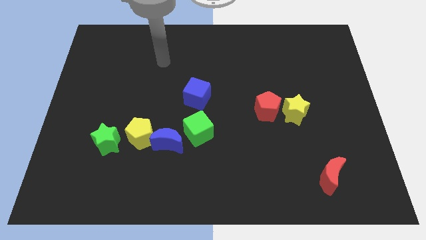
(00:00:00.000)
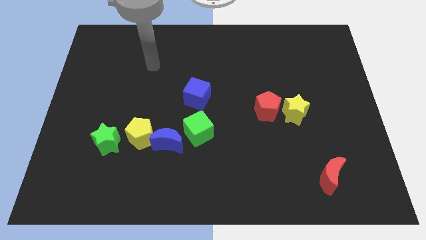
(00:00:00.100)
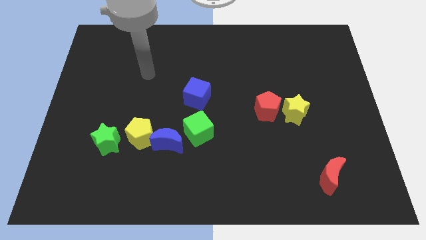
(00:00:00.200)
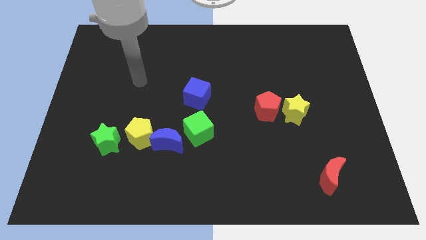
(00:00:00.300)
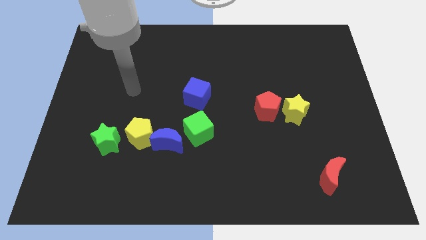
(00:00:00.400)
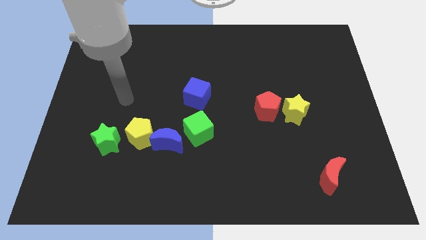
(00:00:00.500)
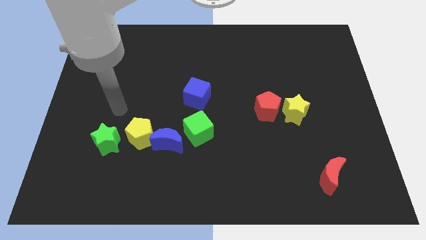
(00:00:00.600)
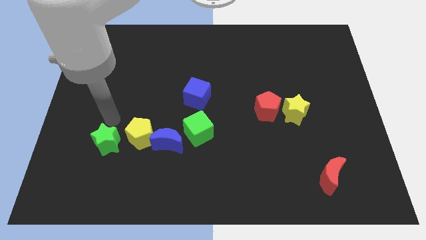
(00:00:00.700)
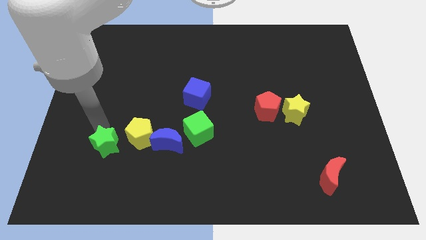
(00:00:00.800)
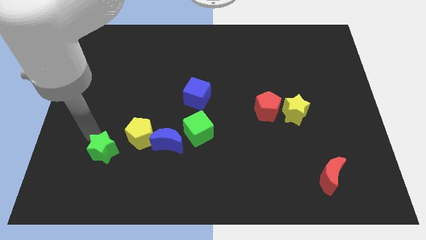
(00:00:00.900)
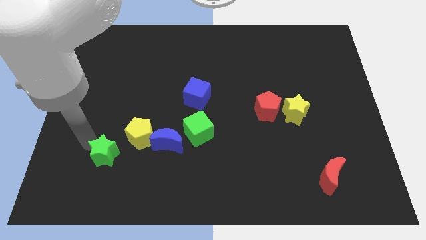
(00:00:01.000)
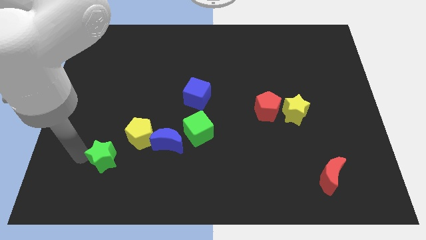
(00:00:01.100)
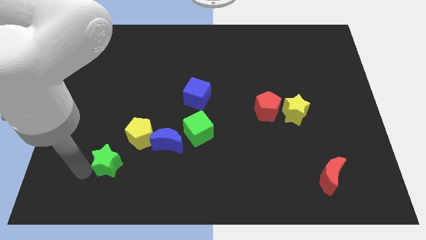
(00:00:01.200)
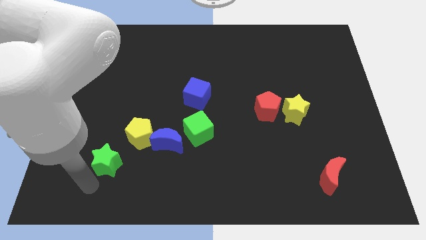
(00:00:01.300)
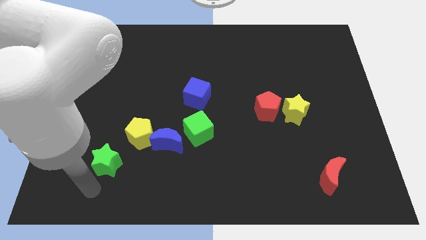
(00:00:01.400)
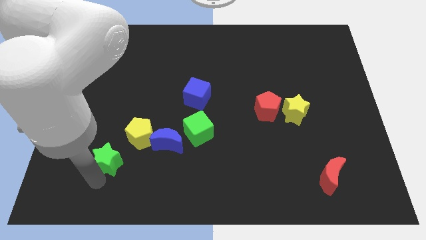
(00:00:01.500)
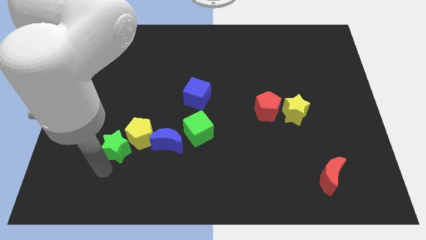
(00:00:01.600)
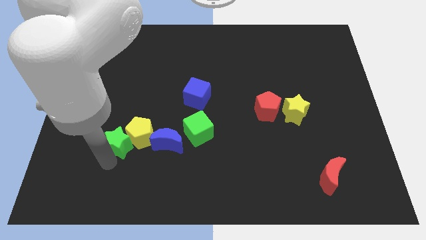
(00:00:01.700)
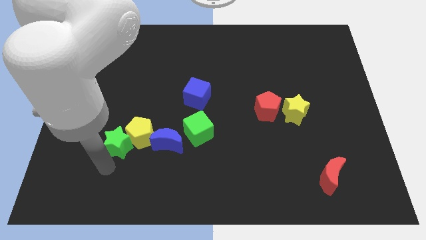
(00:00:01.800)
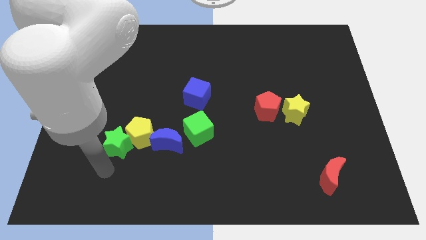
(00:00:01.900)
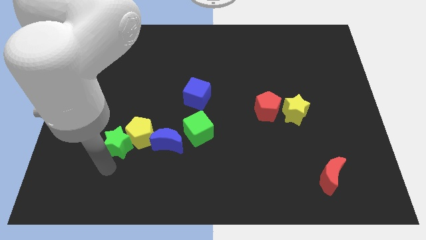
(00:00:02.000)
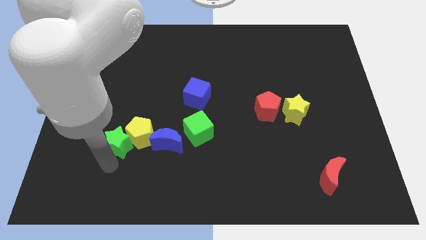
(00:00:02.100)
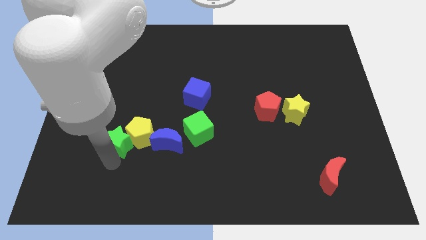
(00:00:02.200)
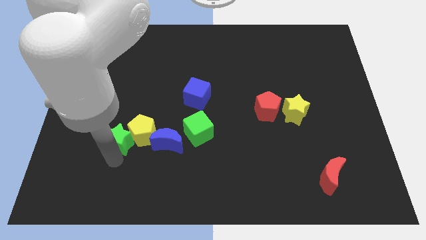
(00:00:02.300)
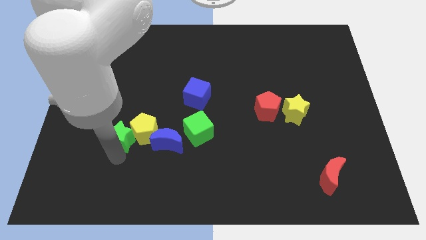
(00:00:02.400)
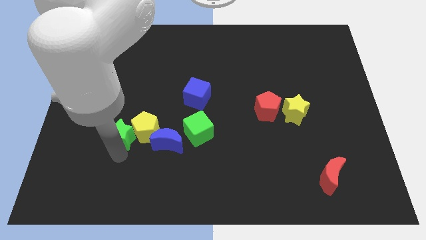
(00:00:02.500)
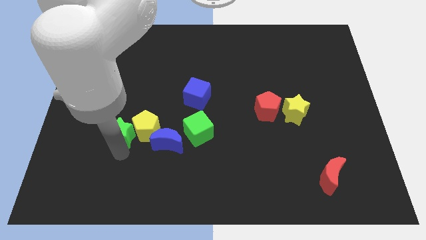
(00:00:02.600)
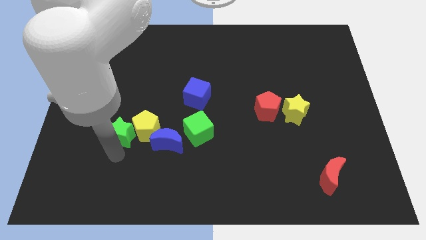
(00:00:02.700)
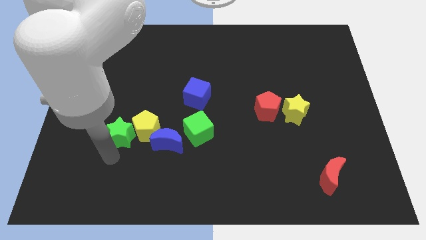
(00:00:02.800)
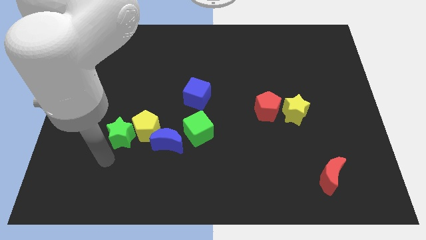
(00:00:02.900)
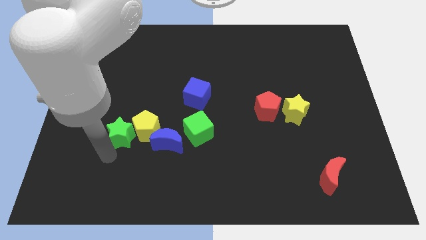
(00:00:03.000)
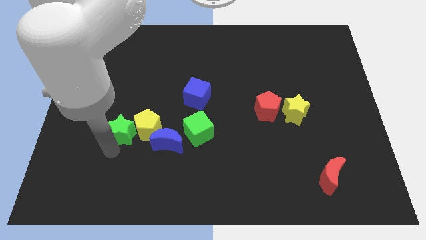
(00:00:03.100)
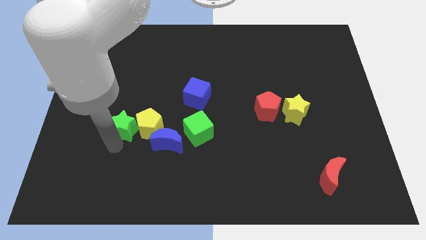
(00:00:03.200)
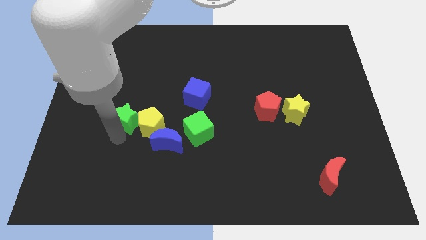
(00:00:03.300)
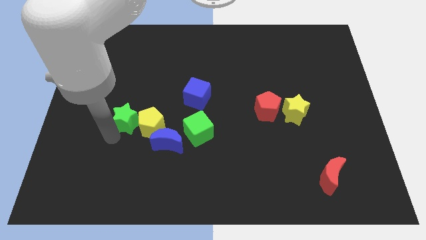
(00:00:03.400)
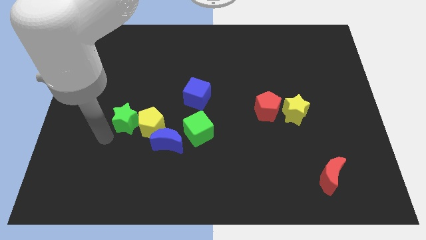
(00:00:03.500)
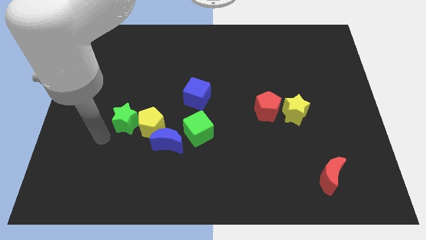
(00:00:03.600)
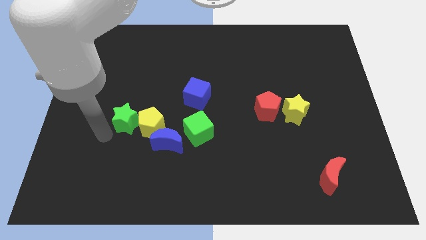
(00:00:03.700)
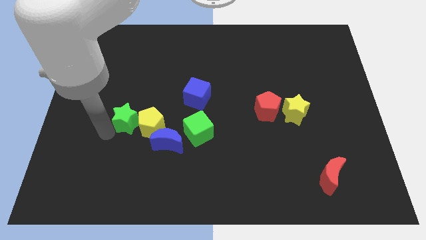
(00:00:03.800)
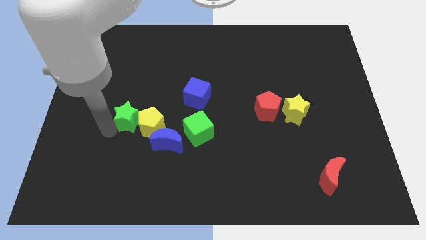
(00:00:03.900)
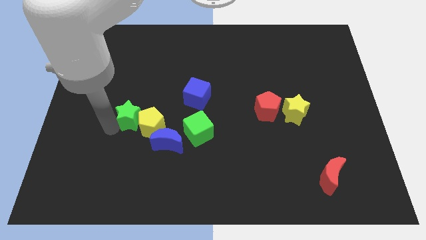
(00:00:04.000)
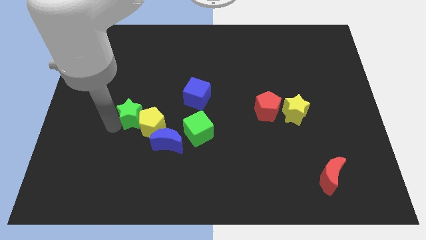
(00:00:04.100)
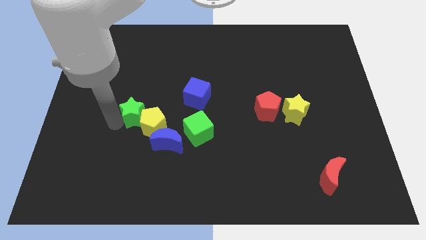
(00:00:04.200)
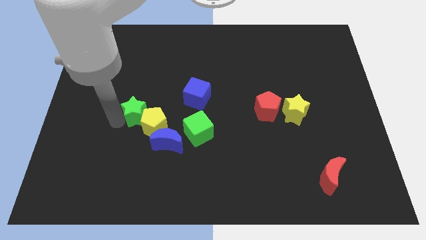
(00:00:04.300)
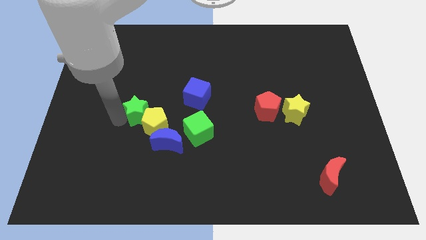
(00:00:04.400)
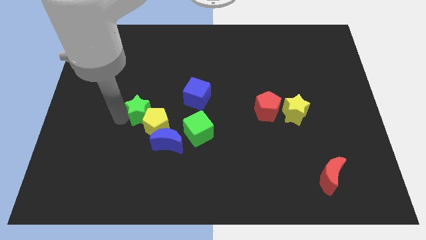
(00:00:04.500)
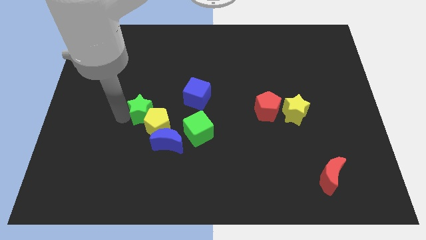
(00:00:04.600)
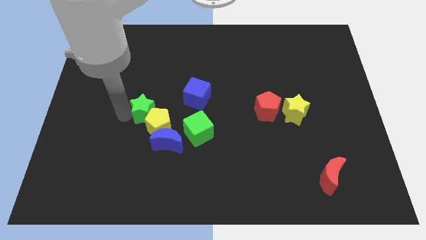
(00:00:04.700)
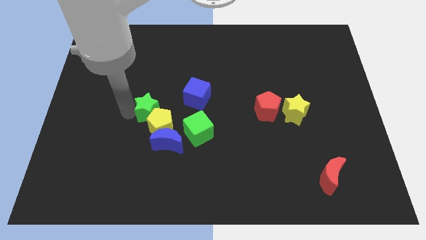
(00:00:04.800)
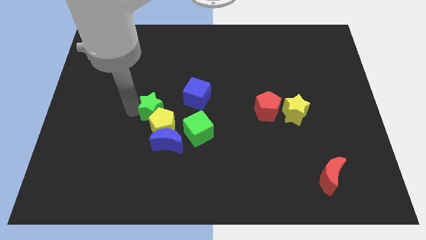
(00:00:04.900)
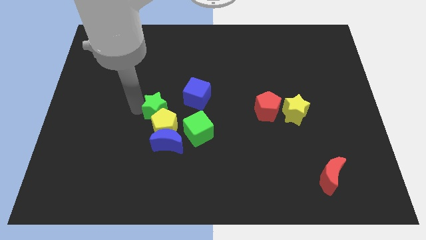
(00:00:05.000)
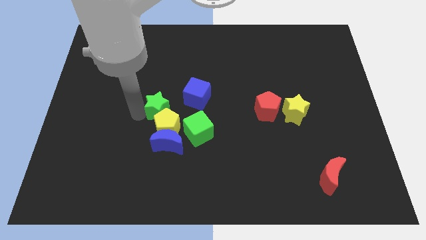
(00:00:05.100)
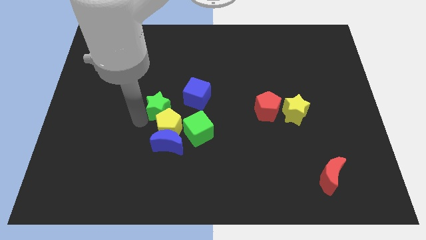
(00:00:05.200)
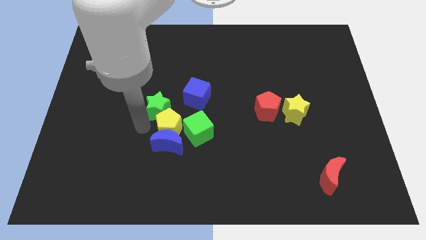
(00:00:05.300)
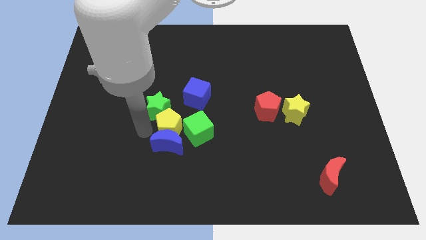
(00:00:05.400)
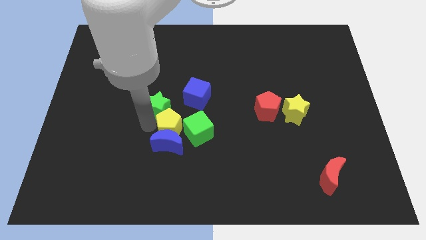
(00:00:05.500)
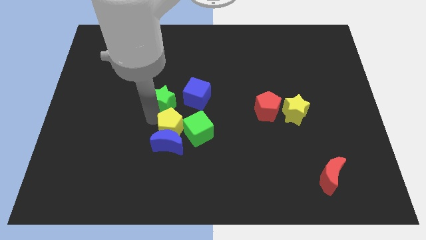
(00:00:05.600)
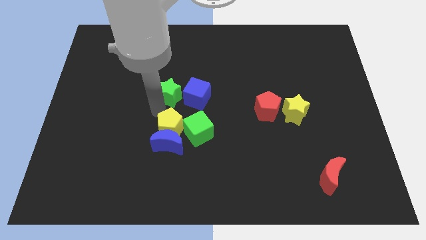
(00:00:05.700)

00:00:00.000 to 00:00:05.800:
push the green star to the top left of the blue cube

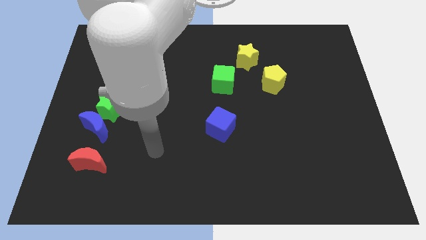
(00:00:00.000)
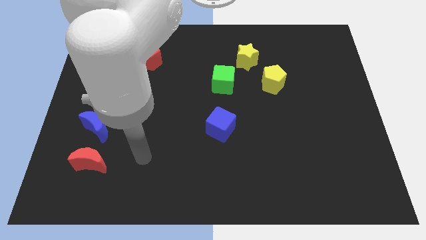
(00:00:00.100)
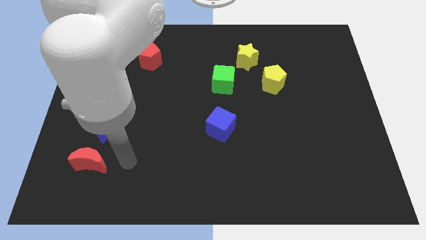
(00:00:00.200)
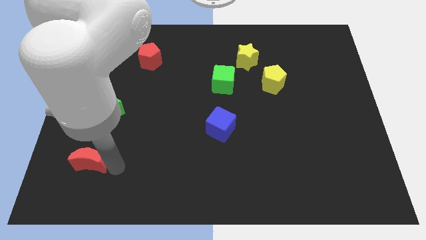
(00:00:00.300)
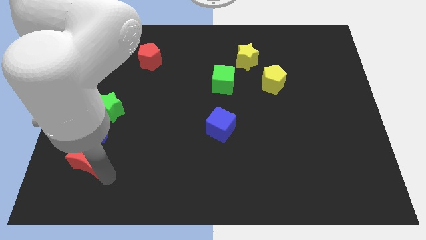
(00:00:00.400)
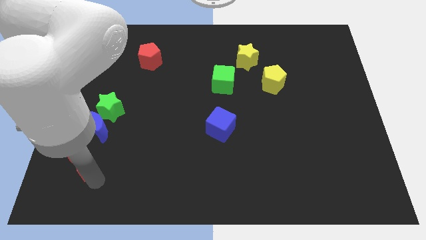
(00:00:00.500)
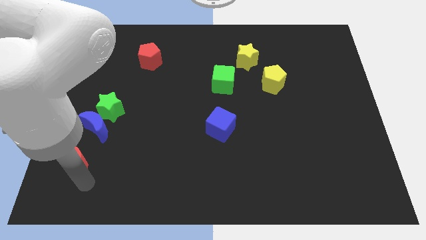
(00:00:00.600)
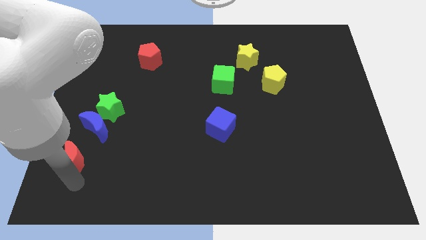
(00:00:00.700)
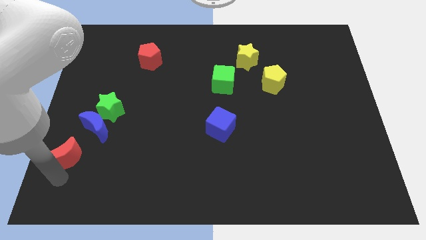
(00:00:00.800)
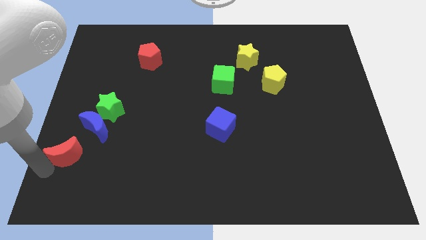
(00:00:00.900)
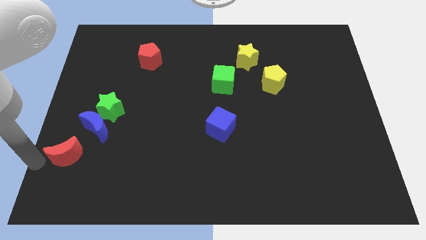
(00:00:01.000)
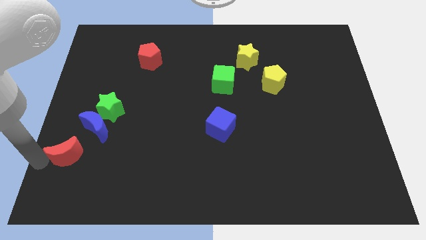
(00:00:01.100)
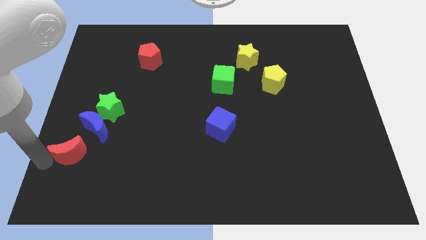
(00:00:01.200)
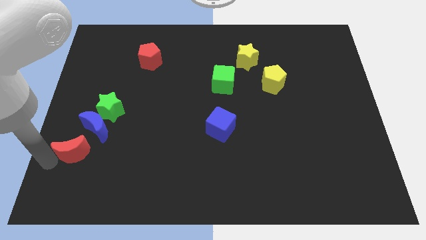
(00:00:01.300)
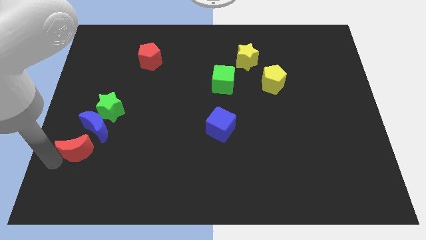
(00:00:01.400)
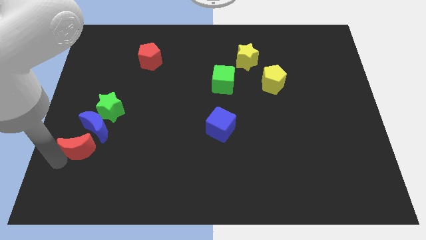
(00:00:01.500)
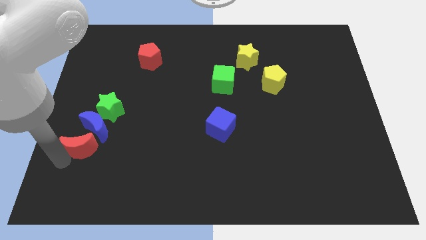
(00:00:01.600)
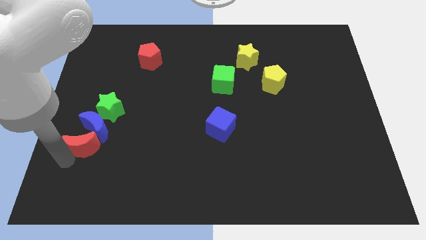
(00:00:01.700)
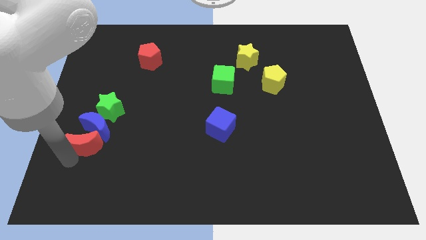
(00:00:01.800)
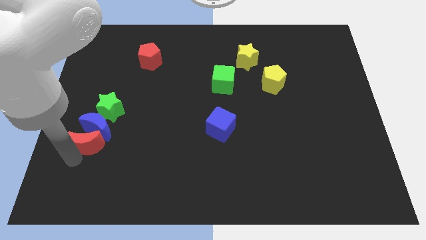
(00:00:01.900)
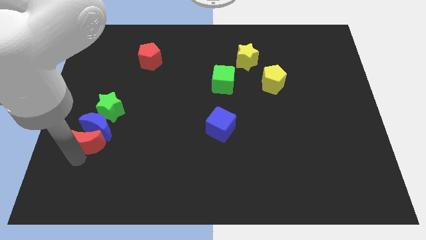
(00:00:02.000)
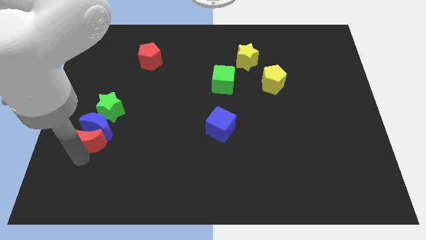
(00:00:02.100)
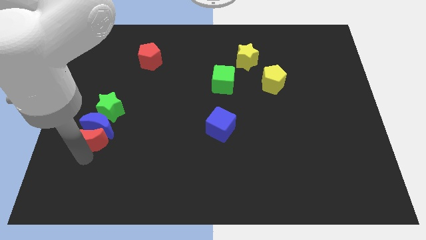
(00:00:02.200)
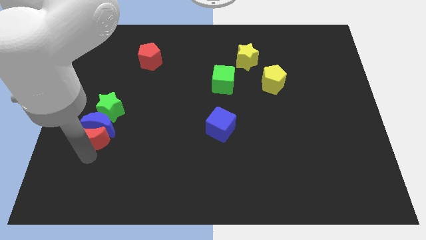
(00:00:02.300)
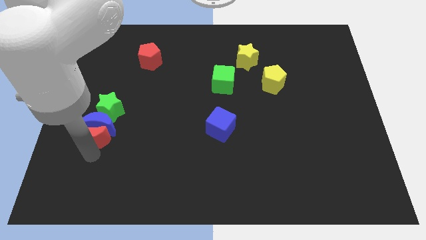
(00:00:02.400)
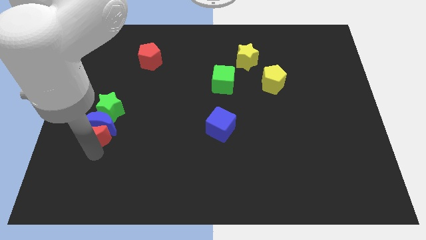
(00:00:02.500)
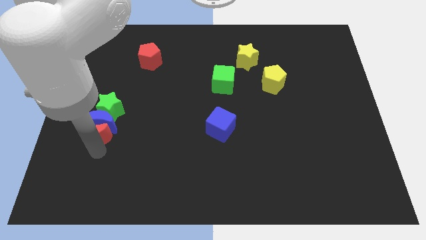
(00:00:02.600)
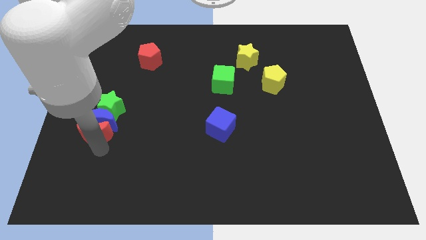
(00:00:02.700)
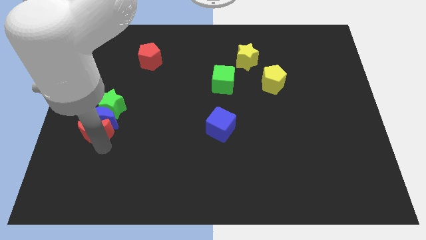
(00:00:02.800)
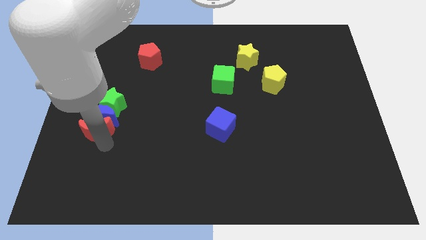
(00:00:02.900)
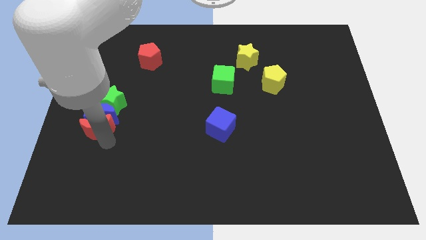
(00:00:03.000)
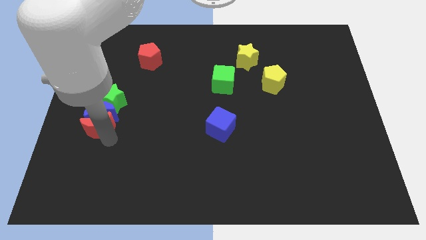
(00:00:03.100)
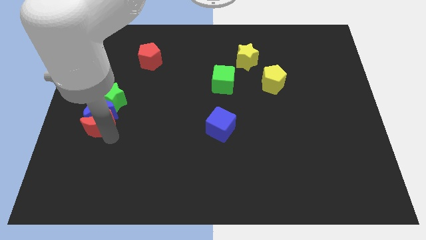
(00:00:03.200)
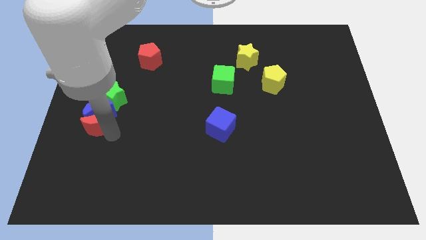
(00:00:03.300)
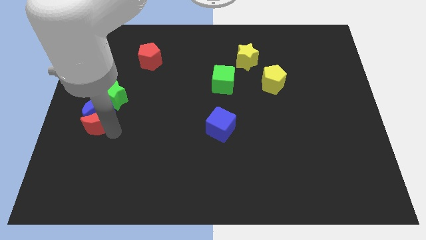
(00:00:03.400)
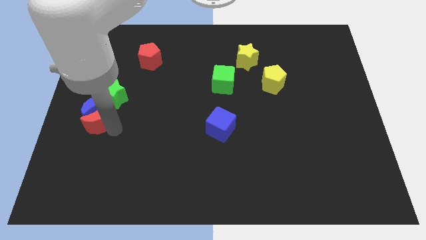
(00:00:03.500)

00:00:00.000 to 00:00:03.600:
push the red moon to the right side of the blue moon
